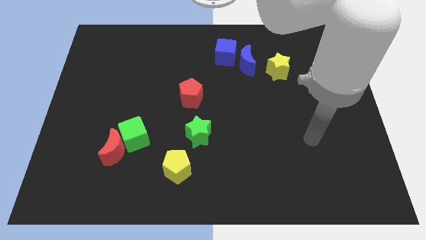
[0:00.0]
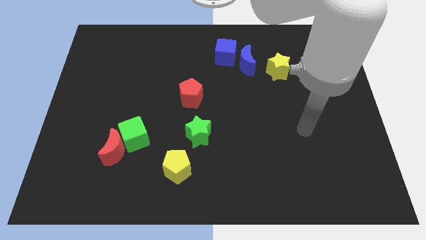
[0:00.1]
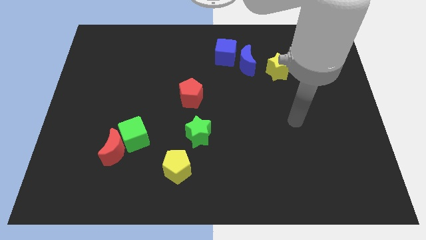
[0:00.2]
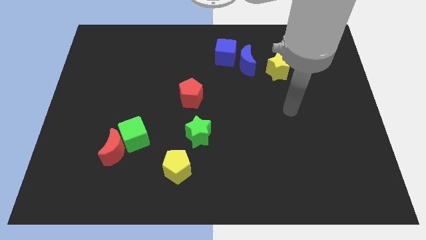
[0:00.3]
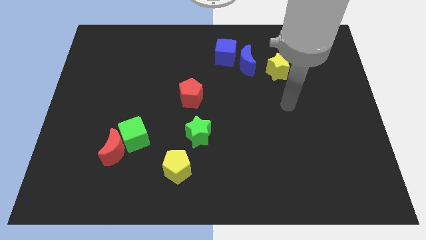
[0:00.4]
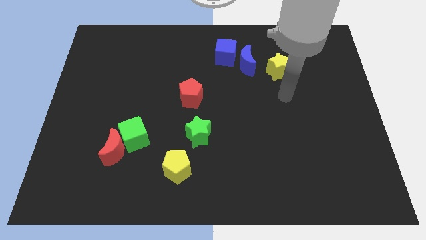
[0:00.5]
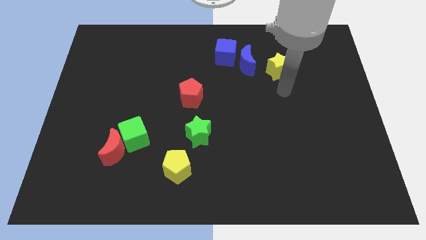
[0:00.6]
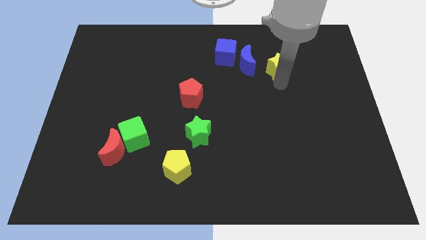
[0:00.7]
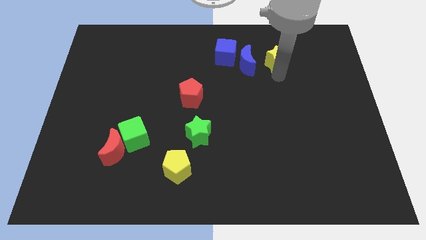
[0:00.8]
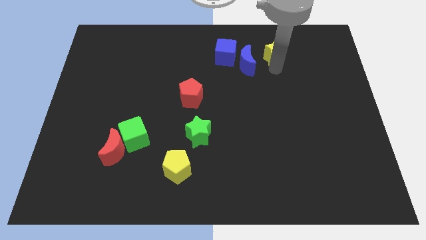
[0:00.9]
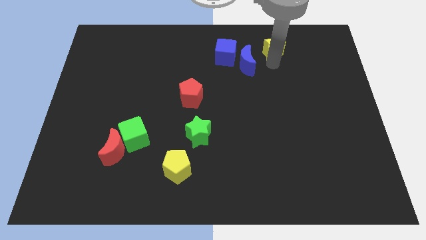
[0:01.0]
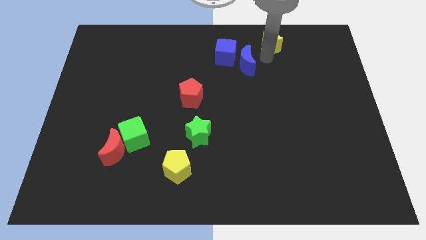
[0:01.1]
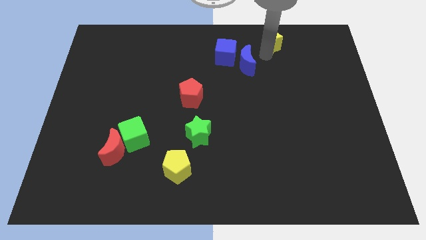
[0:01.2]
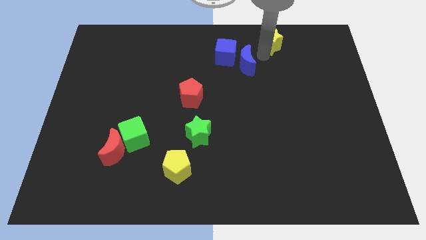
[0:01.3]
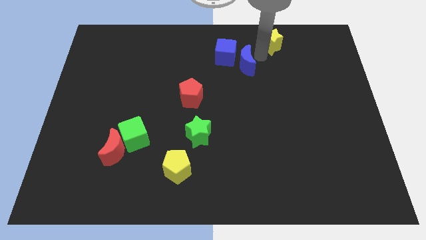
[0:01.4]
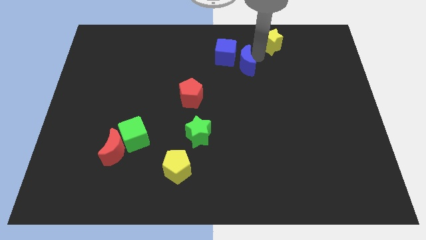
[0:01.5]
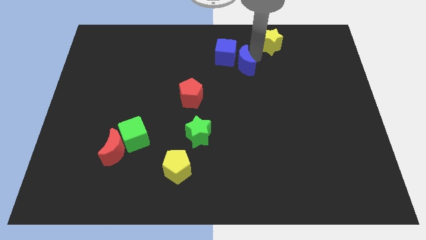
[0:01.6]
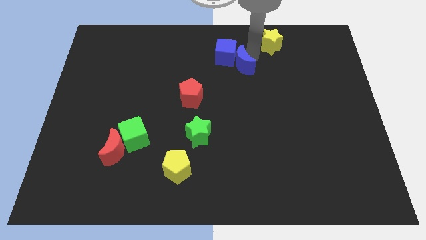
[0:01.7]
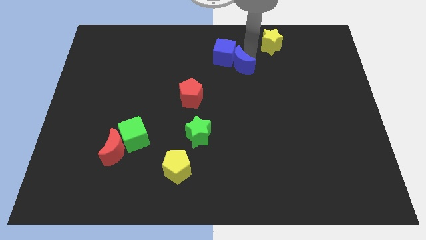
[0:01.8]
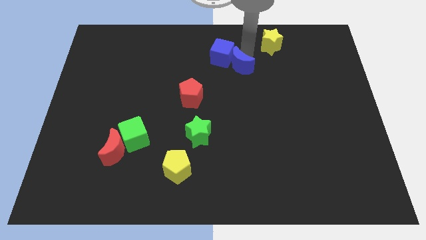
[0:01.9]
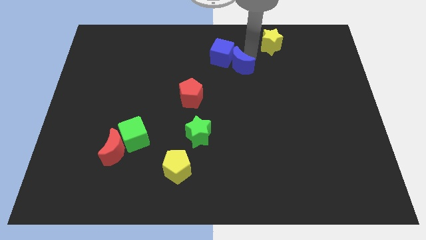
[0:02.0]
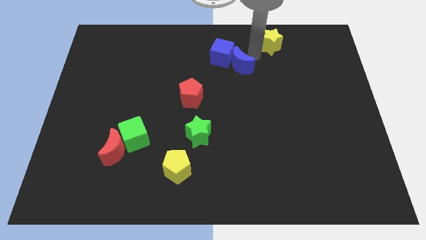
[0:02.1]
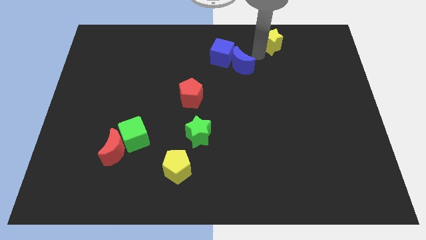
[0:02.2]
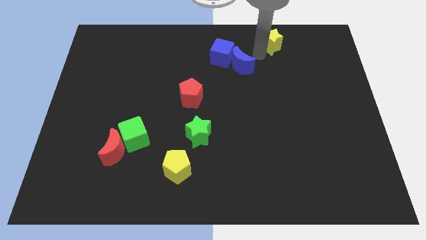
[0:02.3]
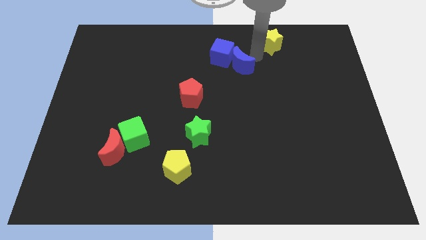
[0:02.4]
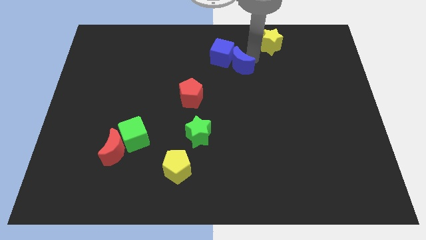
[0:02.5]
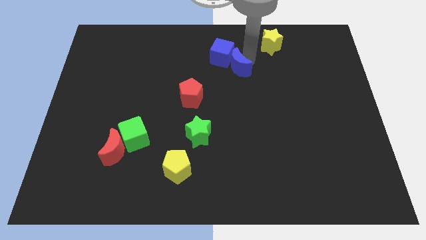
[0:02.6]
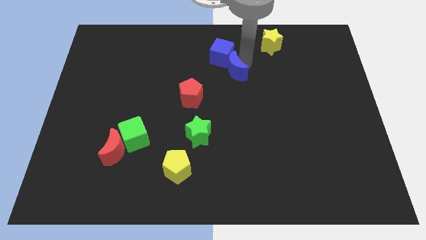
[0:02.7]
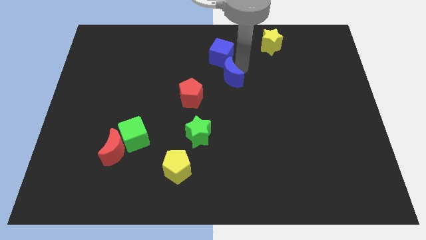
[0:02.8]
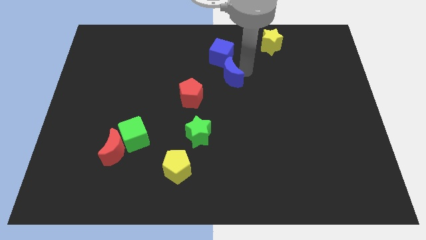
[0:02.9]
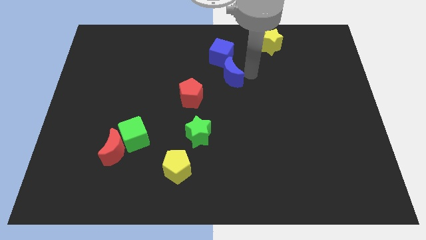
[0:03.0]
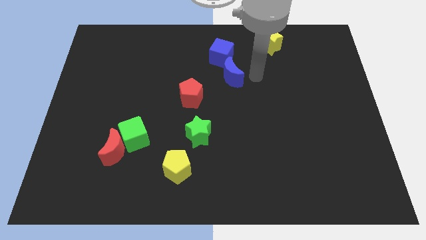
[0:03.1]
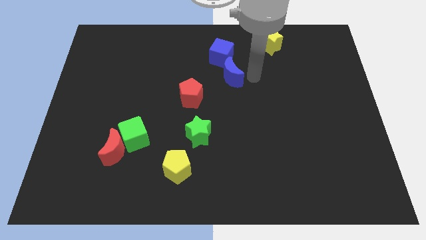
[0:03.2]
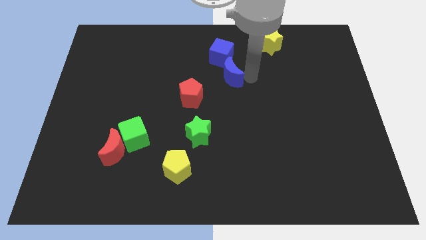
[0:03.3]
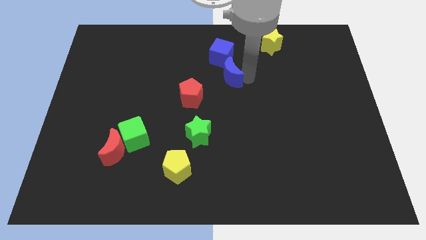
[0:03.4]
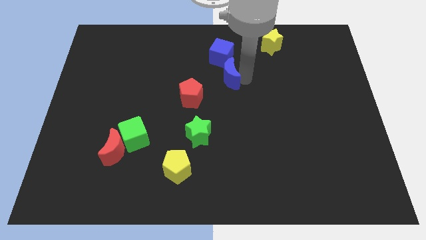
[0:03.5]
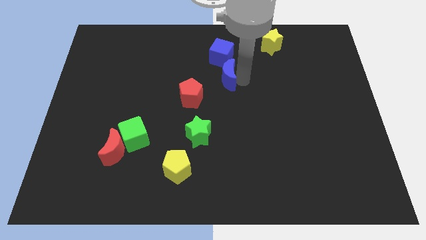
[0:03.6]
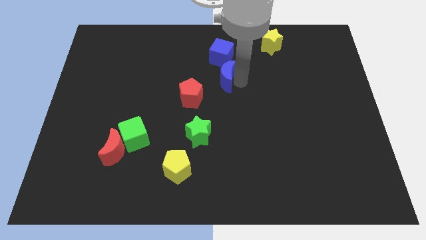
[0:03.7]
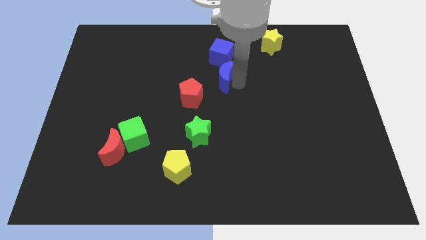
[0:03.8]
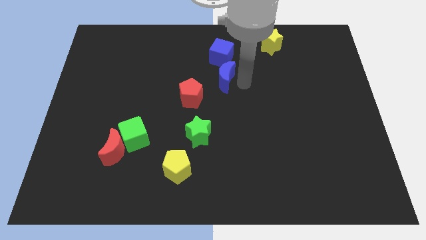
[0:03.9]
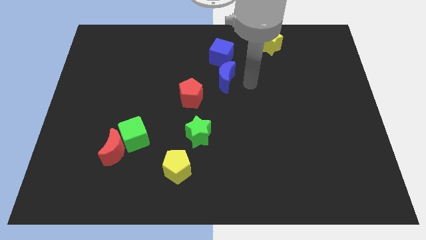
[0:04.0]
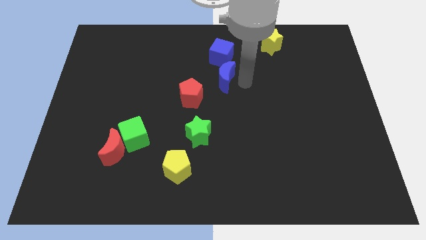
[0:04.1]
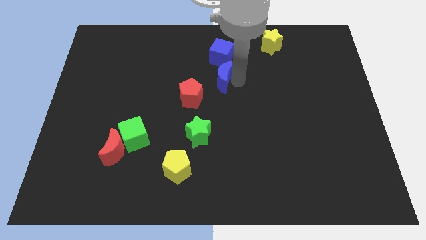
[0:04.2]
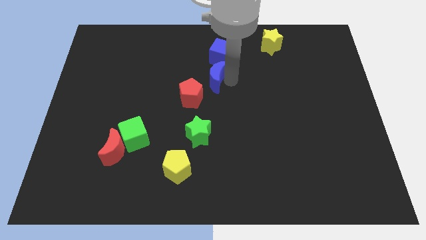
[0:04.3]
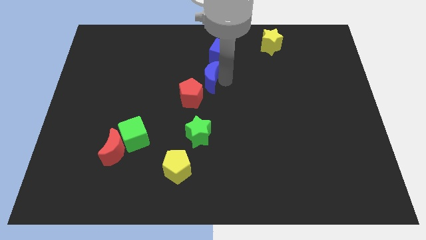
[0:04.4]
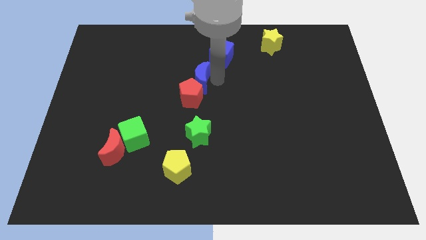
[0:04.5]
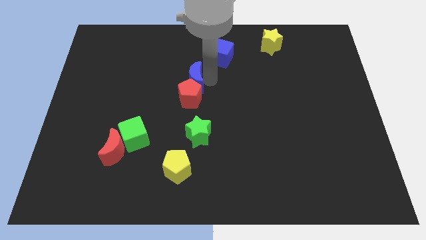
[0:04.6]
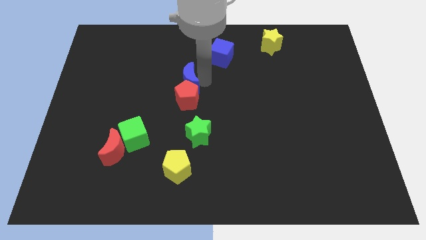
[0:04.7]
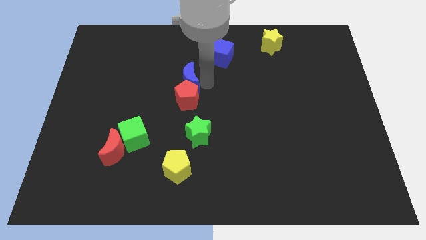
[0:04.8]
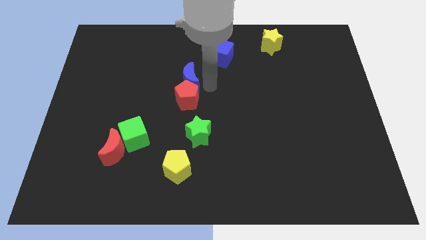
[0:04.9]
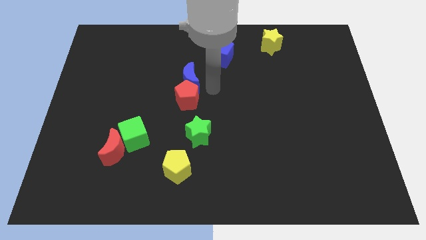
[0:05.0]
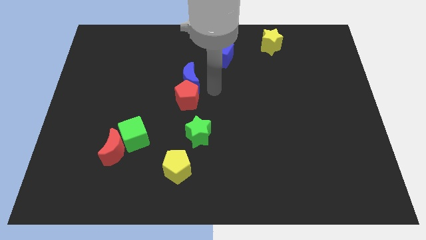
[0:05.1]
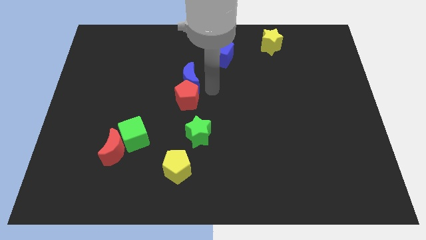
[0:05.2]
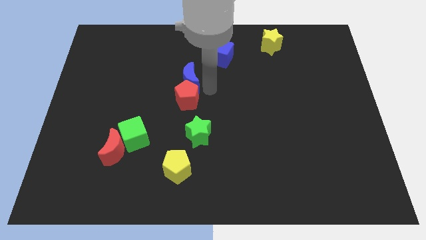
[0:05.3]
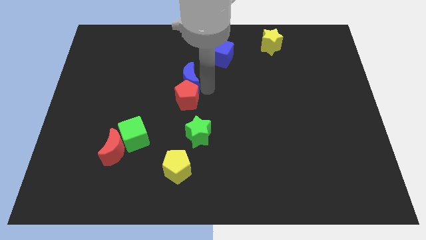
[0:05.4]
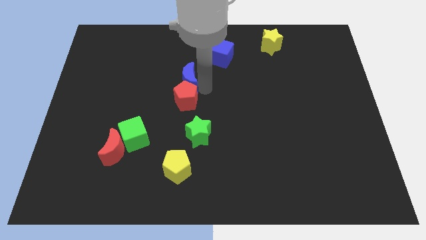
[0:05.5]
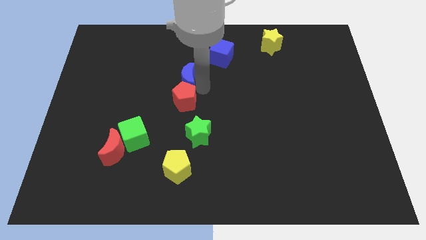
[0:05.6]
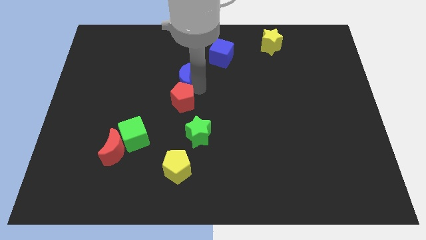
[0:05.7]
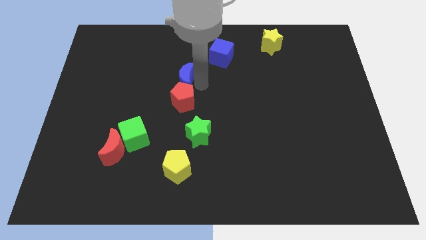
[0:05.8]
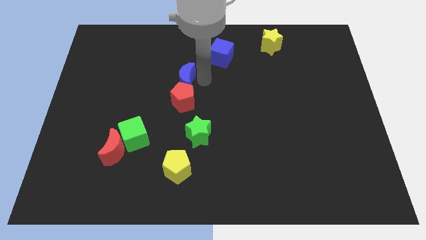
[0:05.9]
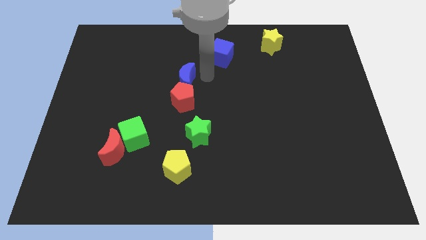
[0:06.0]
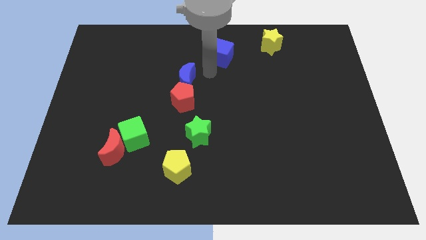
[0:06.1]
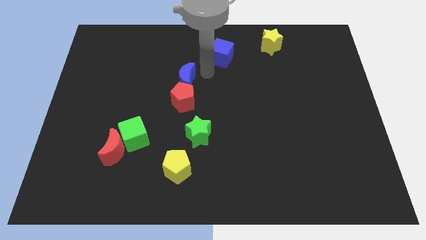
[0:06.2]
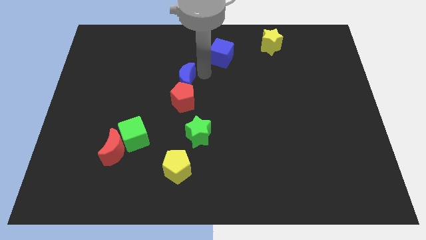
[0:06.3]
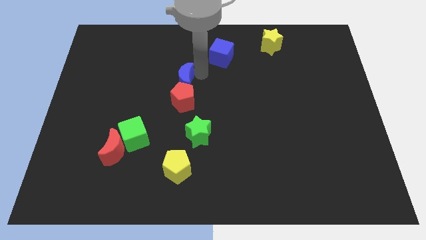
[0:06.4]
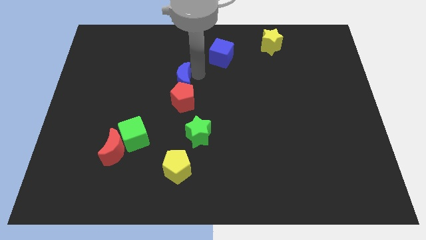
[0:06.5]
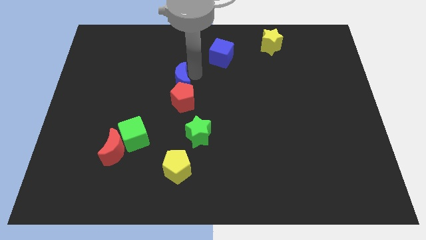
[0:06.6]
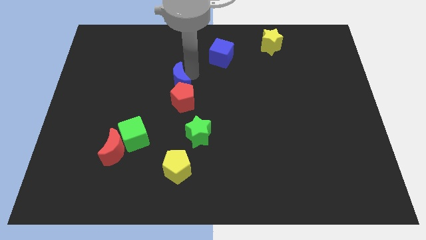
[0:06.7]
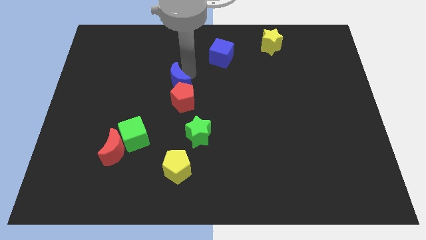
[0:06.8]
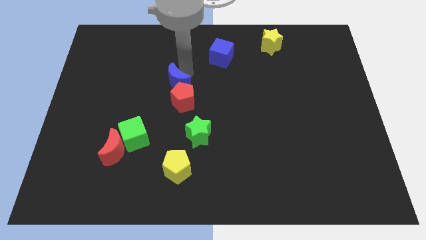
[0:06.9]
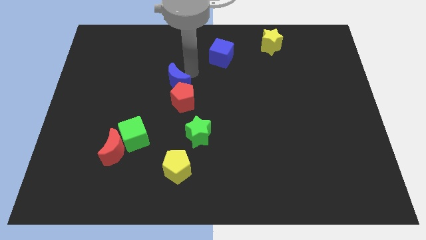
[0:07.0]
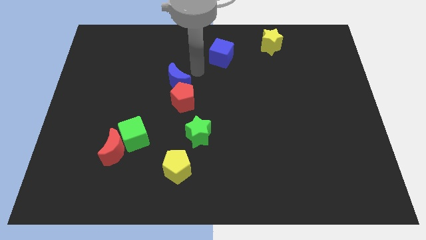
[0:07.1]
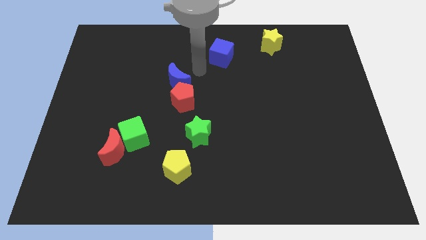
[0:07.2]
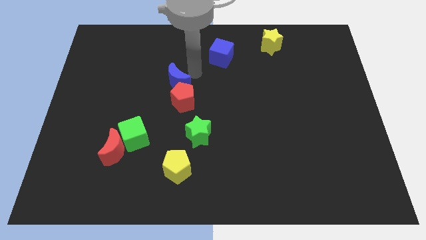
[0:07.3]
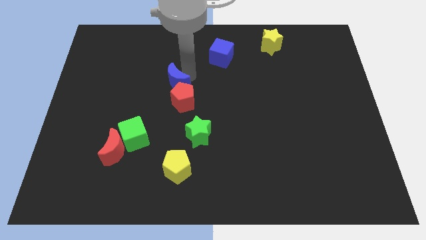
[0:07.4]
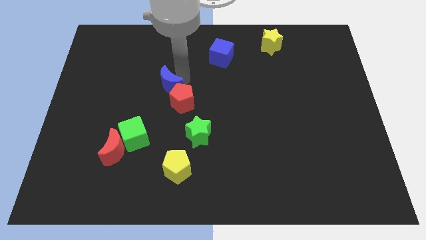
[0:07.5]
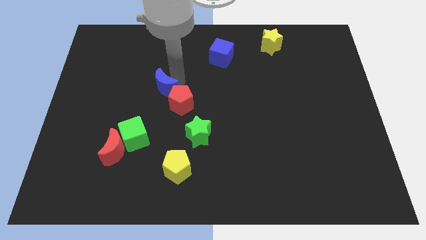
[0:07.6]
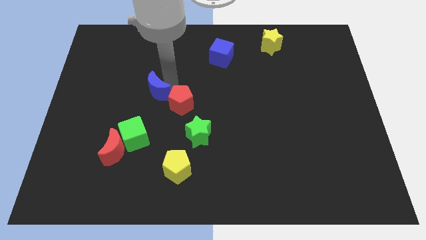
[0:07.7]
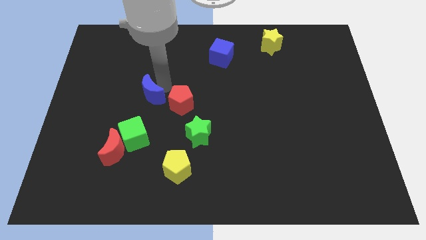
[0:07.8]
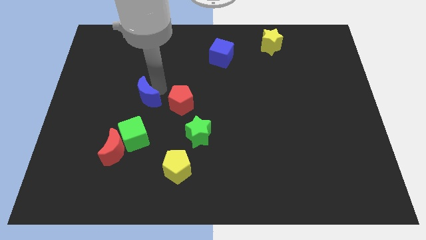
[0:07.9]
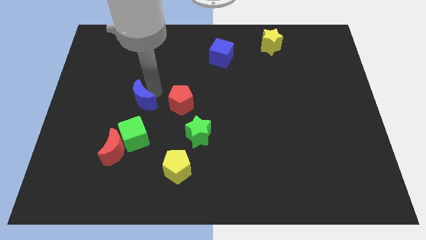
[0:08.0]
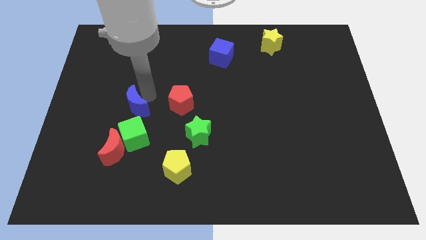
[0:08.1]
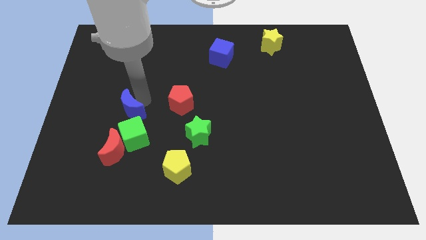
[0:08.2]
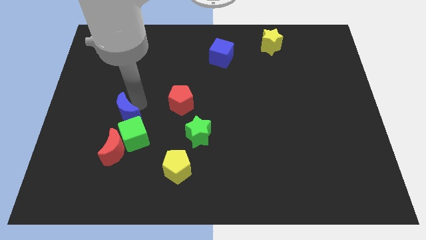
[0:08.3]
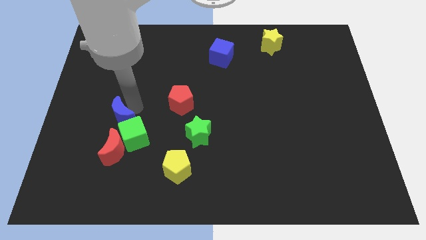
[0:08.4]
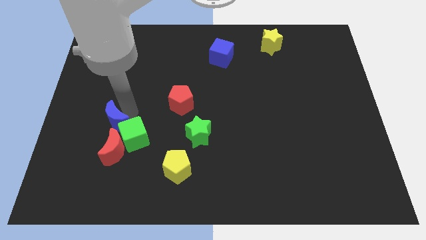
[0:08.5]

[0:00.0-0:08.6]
slide the blue moon to the top left side of the red moon
